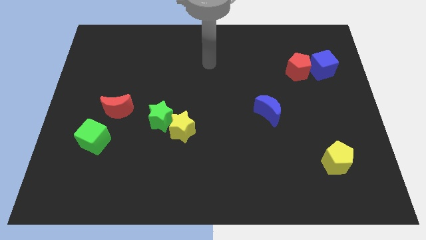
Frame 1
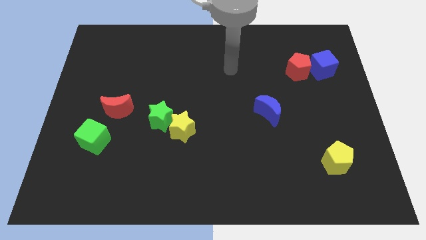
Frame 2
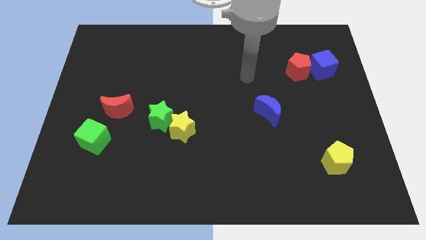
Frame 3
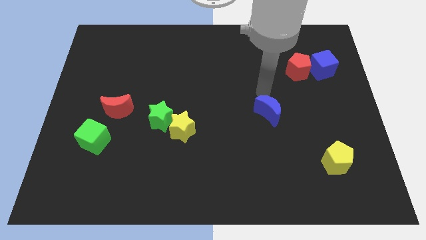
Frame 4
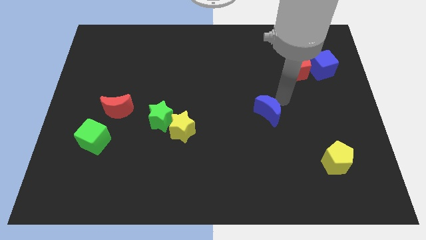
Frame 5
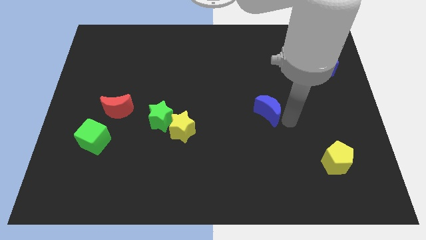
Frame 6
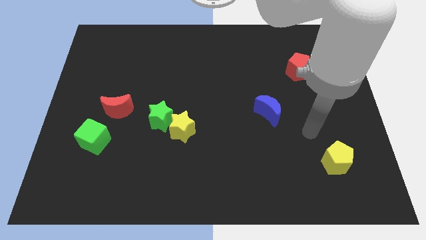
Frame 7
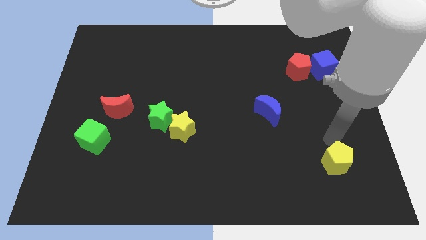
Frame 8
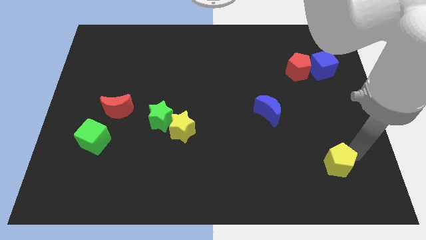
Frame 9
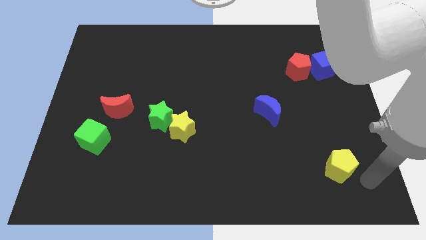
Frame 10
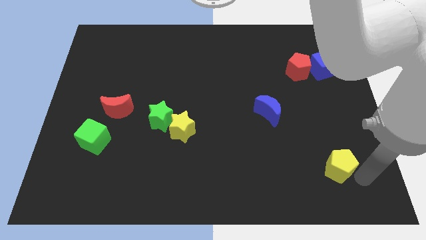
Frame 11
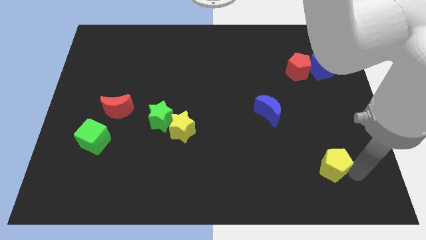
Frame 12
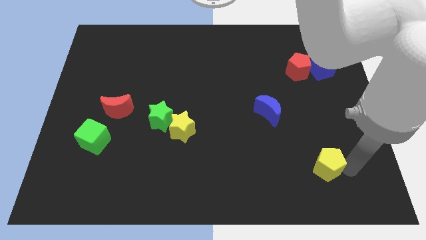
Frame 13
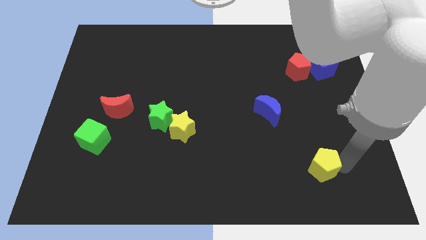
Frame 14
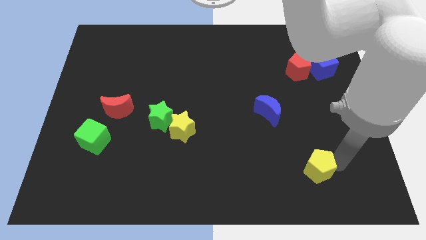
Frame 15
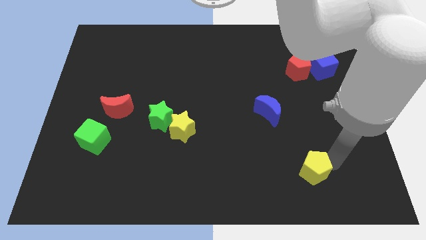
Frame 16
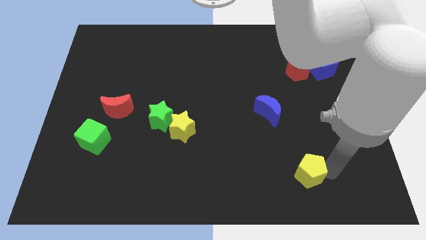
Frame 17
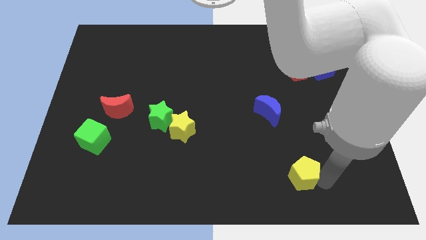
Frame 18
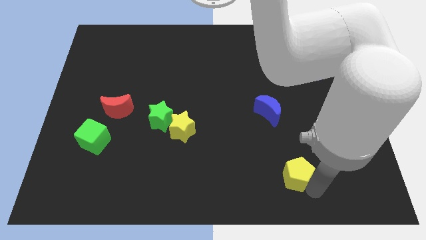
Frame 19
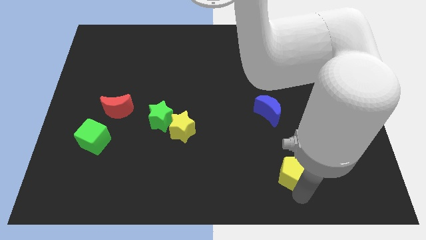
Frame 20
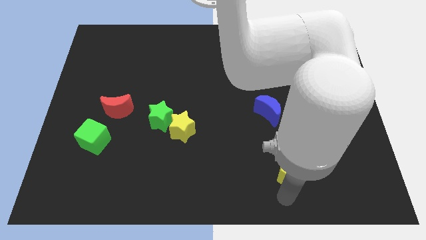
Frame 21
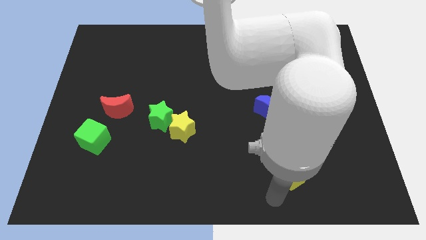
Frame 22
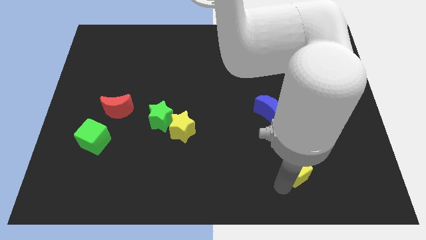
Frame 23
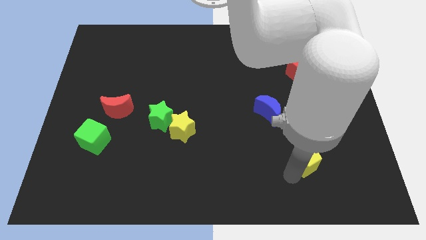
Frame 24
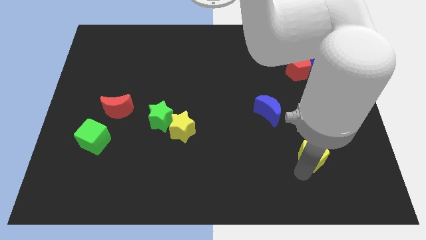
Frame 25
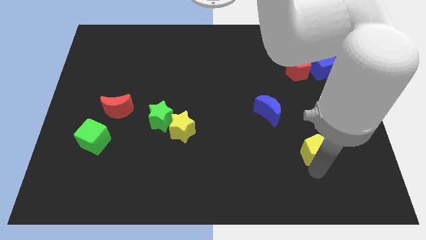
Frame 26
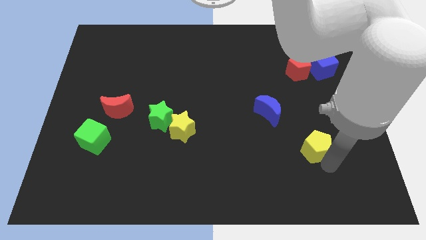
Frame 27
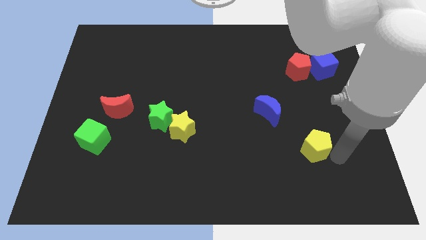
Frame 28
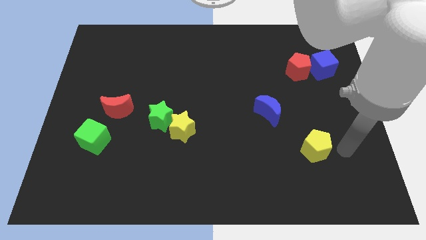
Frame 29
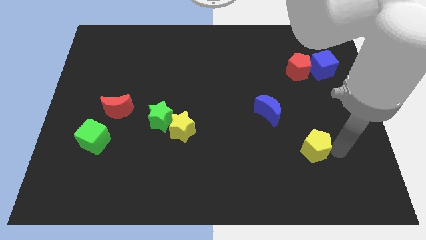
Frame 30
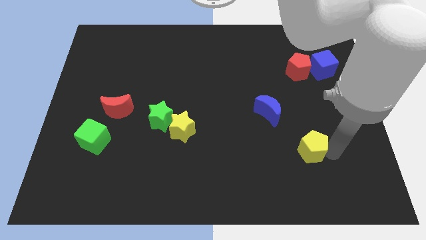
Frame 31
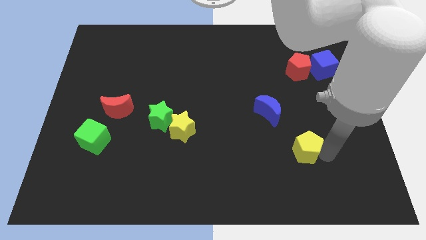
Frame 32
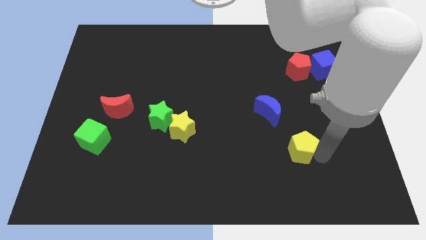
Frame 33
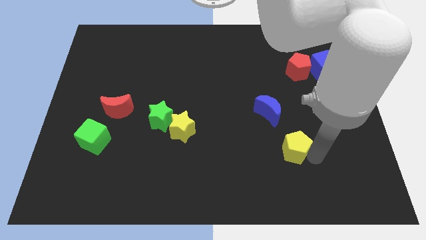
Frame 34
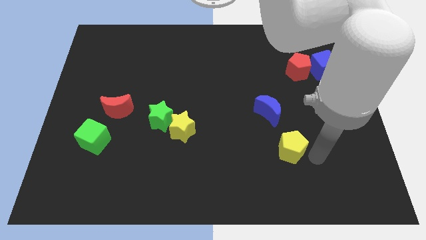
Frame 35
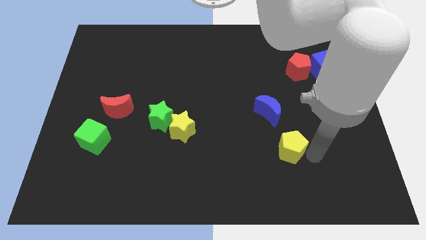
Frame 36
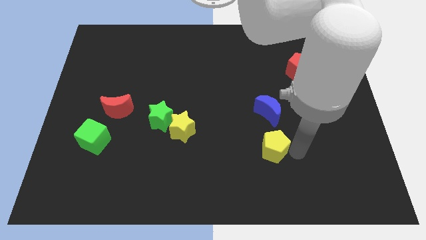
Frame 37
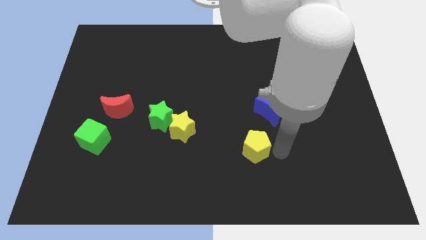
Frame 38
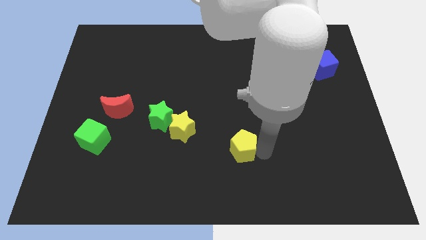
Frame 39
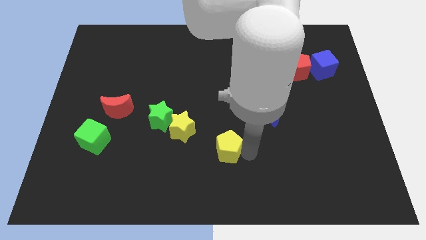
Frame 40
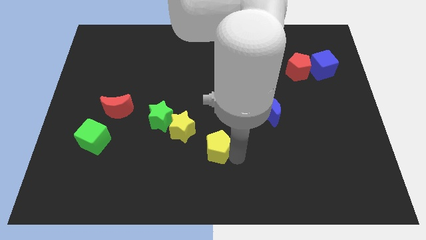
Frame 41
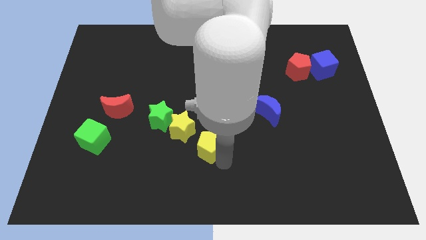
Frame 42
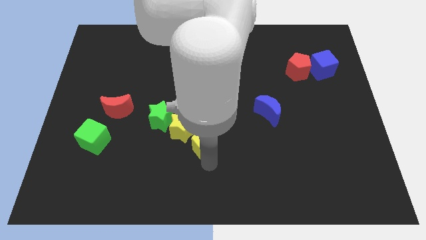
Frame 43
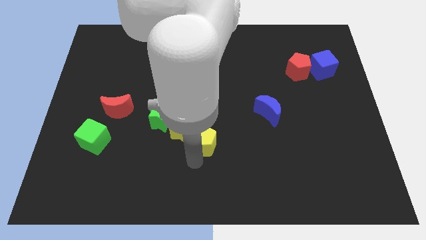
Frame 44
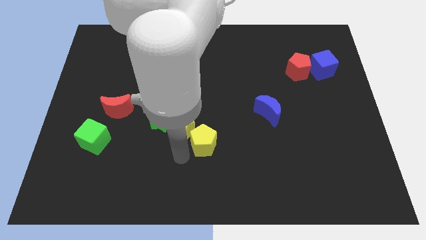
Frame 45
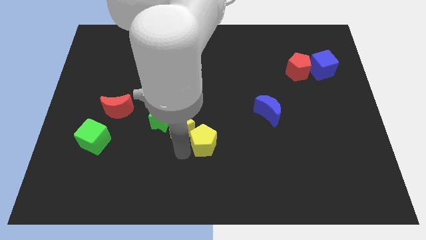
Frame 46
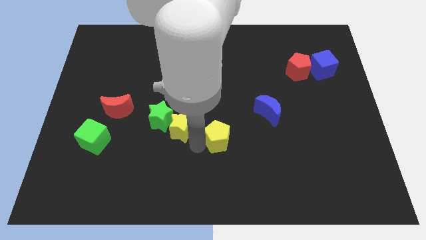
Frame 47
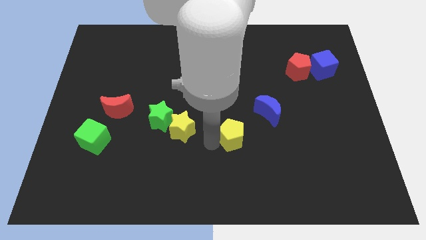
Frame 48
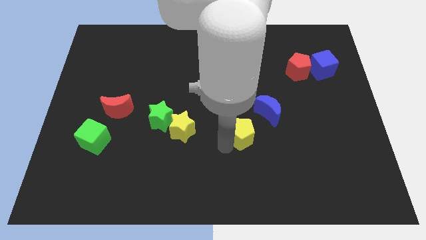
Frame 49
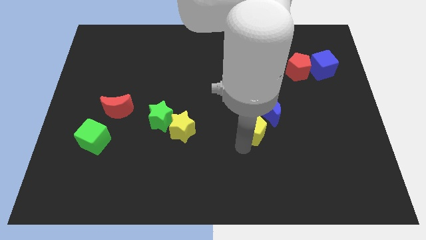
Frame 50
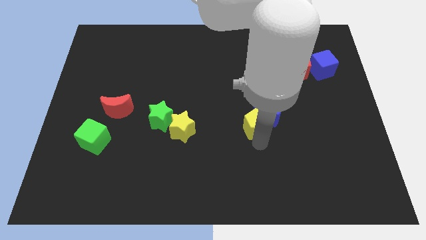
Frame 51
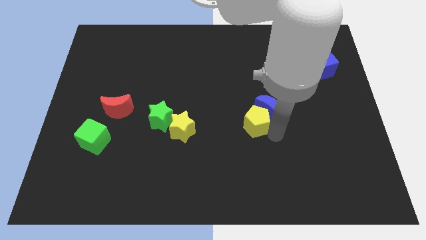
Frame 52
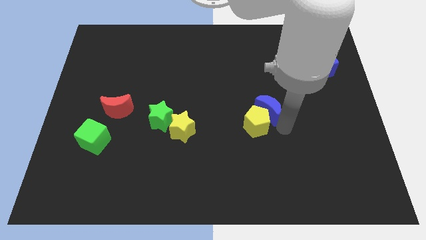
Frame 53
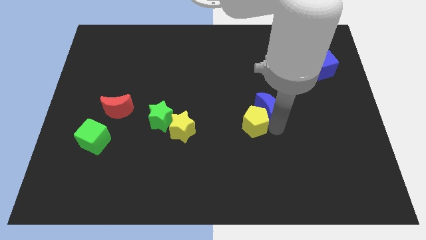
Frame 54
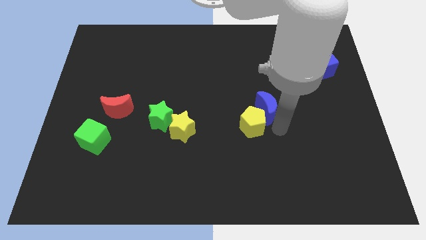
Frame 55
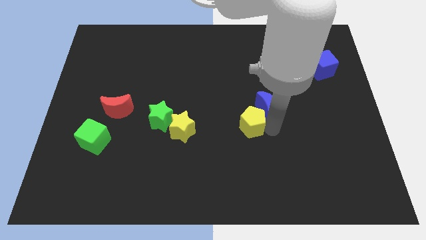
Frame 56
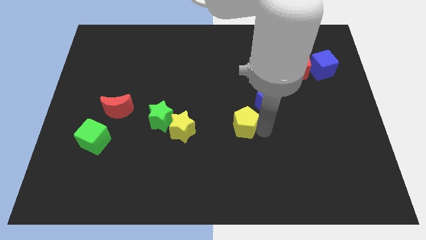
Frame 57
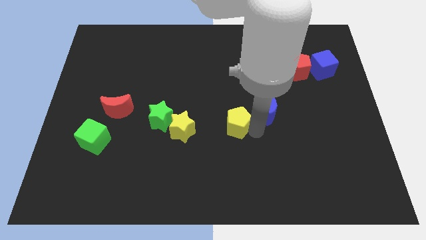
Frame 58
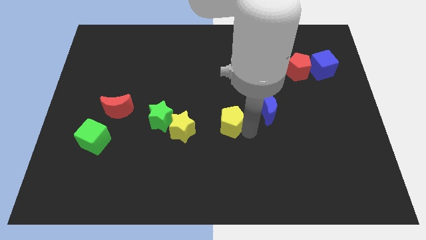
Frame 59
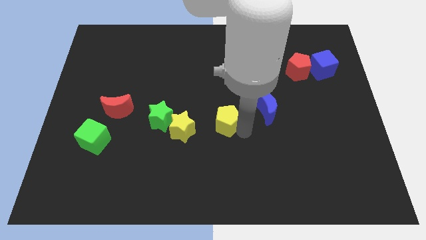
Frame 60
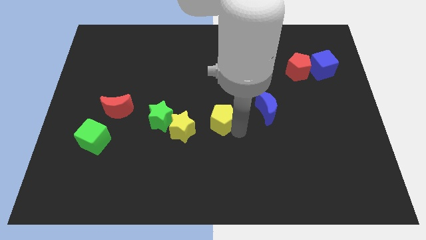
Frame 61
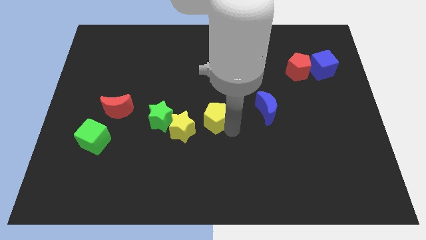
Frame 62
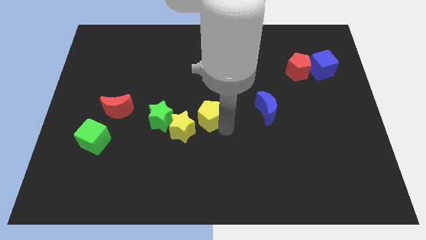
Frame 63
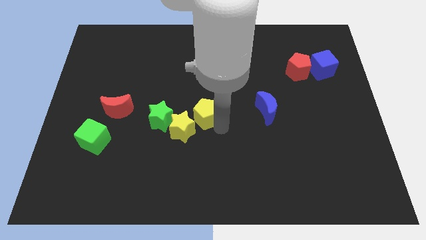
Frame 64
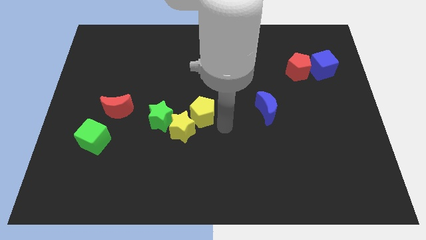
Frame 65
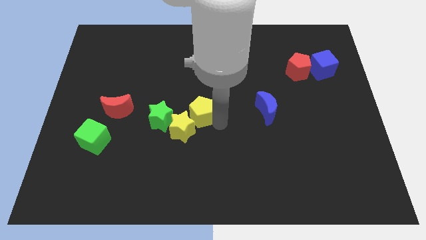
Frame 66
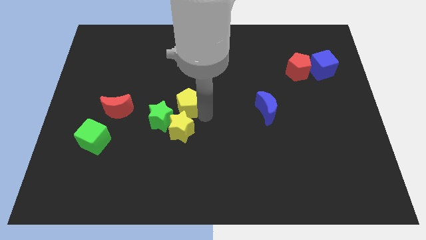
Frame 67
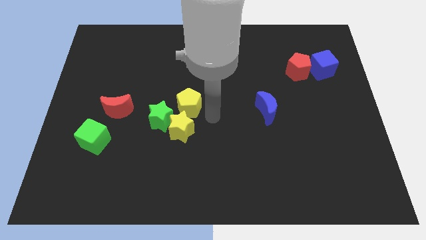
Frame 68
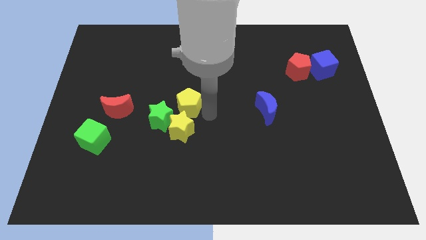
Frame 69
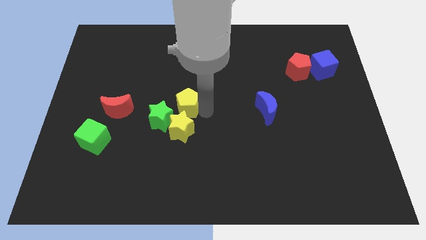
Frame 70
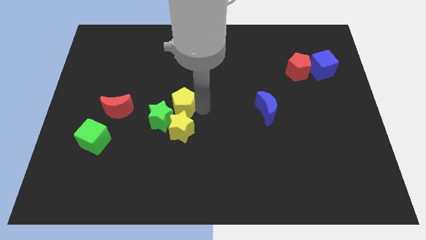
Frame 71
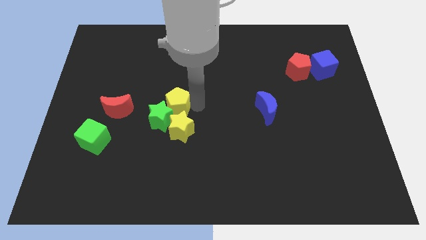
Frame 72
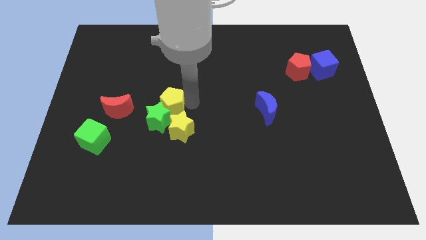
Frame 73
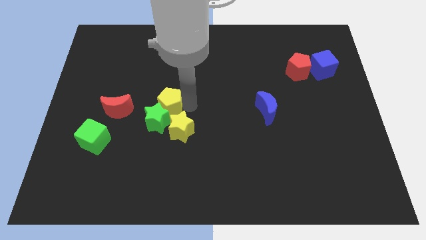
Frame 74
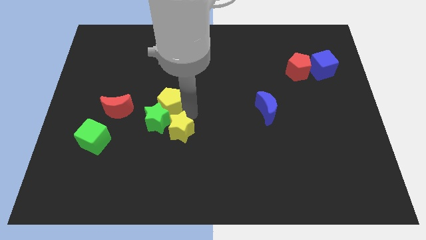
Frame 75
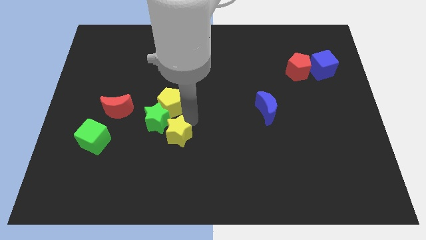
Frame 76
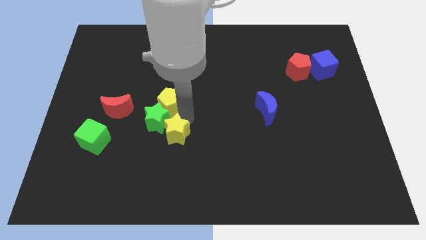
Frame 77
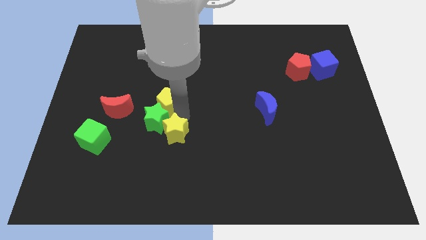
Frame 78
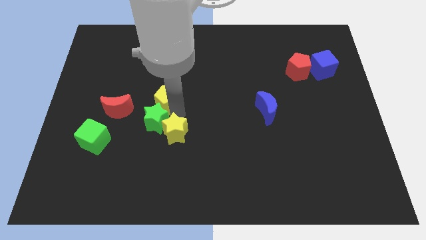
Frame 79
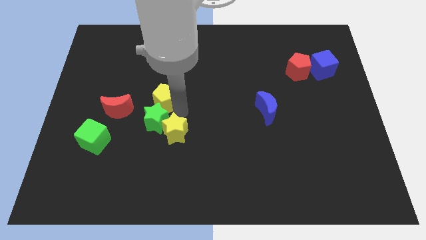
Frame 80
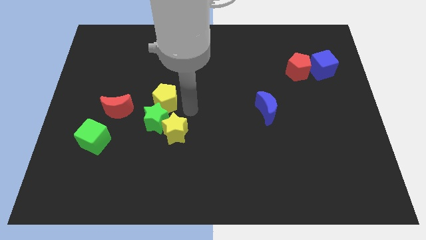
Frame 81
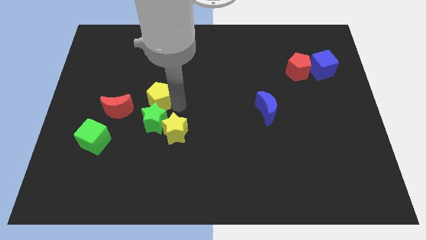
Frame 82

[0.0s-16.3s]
slide the yellow pentagon to the top right side of the red moon
